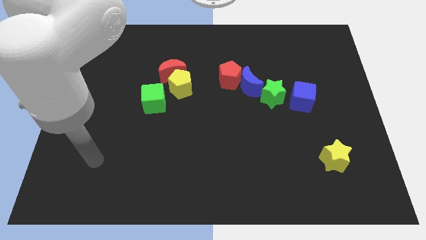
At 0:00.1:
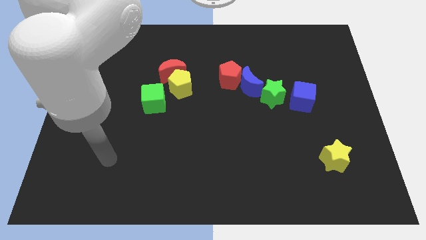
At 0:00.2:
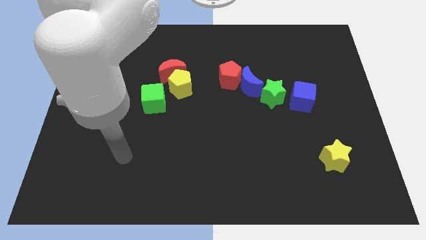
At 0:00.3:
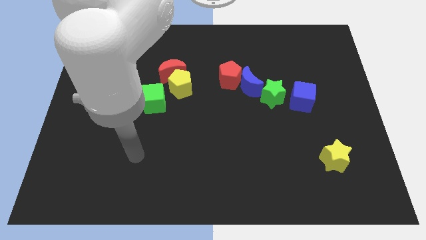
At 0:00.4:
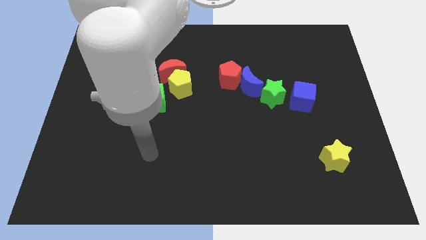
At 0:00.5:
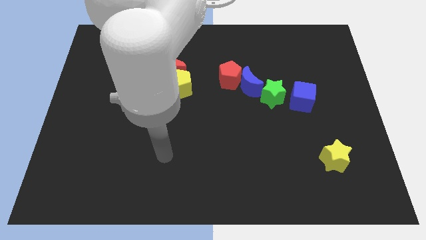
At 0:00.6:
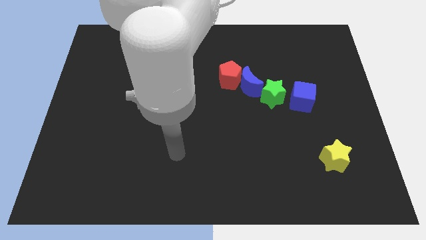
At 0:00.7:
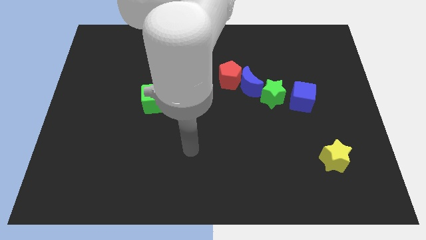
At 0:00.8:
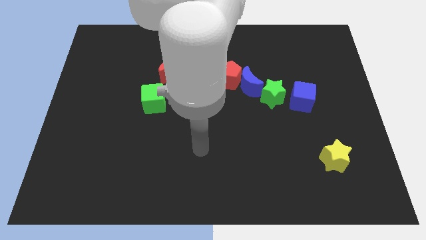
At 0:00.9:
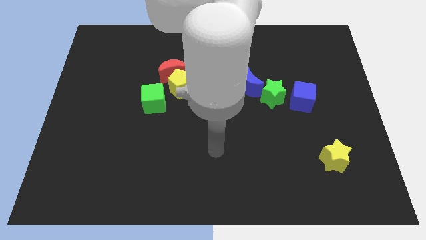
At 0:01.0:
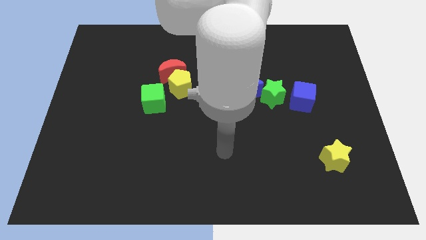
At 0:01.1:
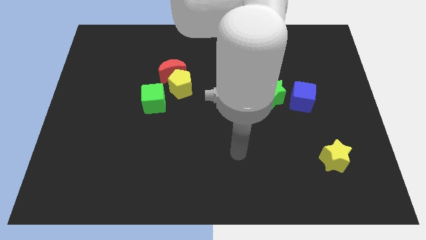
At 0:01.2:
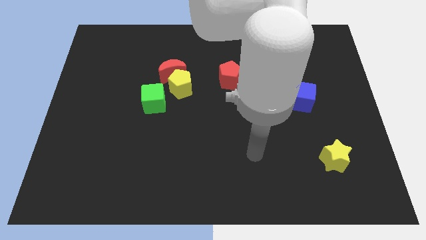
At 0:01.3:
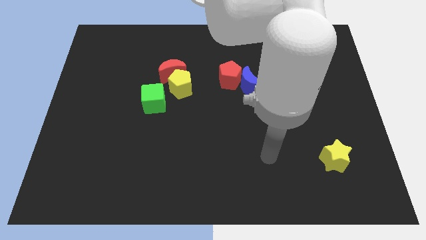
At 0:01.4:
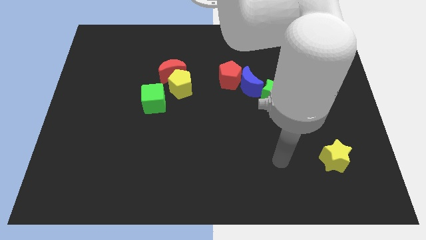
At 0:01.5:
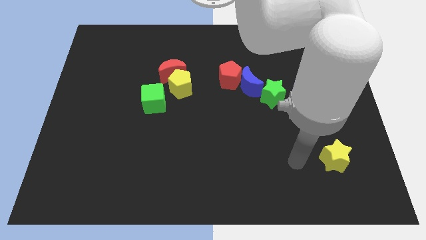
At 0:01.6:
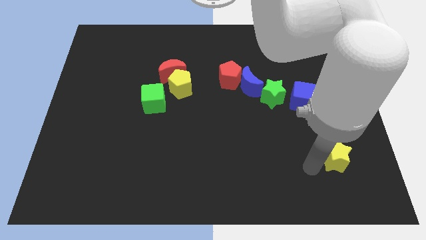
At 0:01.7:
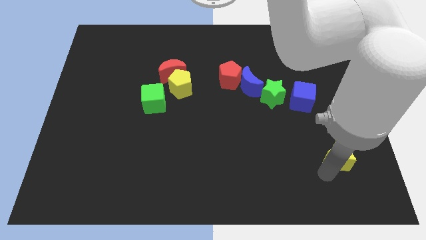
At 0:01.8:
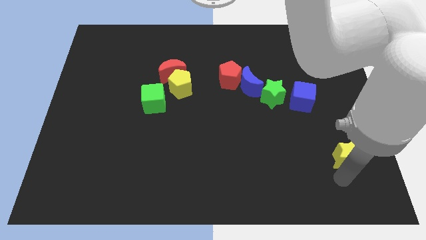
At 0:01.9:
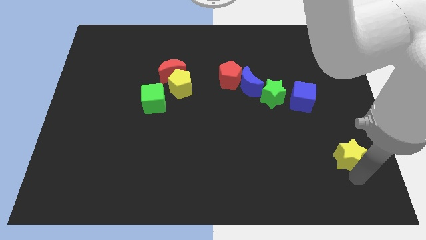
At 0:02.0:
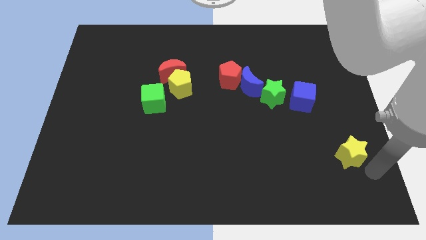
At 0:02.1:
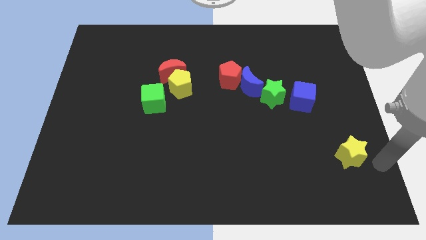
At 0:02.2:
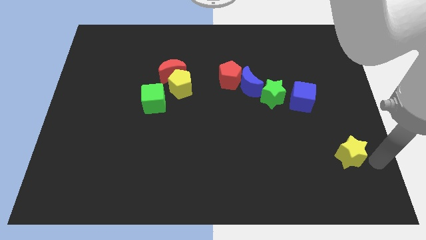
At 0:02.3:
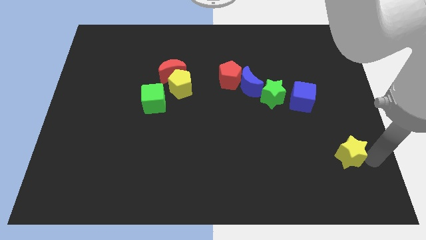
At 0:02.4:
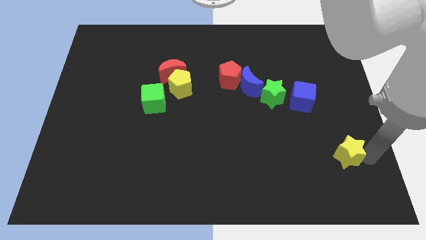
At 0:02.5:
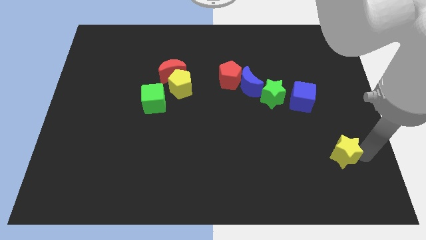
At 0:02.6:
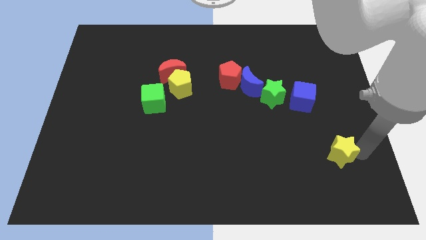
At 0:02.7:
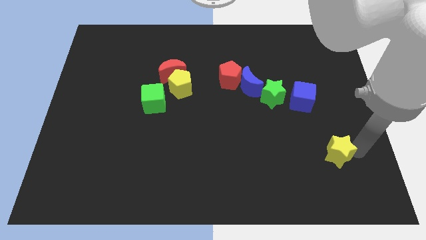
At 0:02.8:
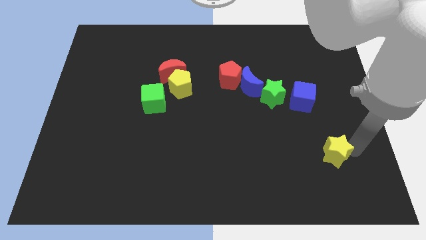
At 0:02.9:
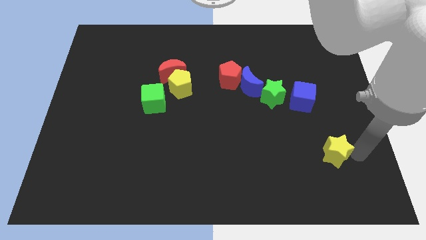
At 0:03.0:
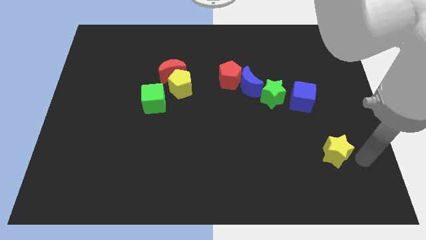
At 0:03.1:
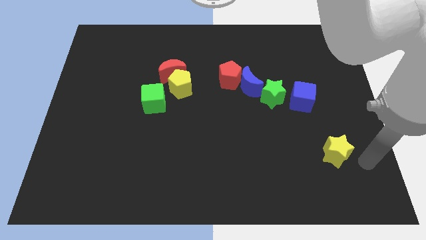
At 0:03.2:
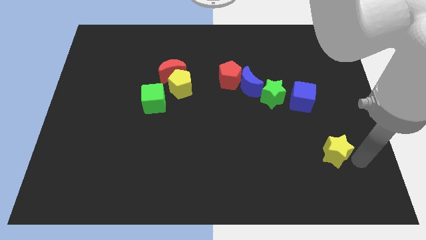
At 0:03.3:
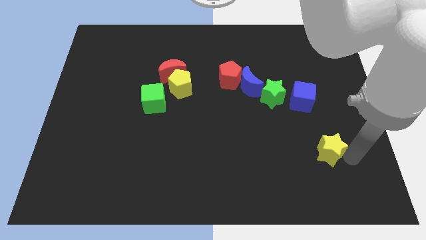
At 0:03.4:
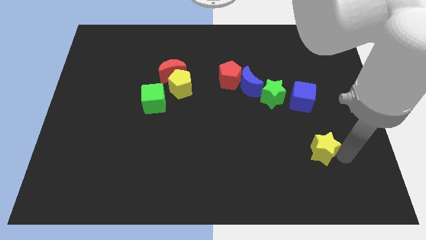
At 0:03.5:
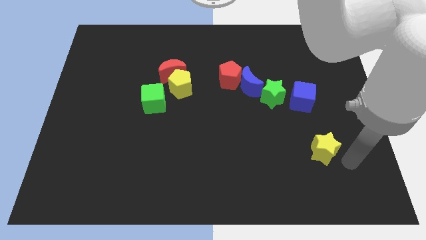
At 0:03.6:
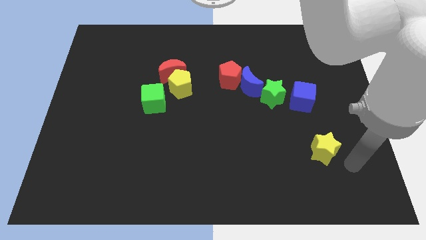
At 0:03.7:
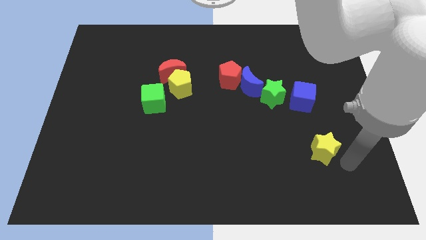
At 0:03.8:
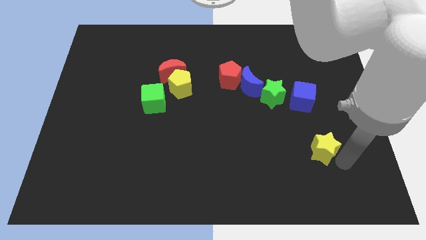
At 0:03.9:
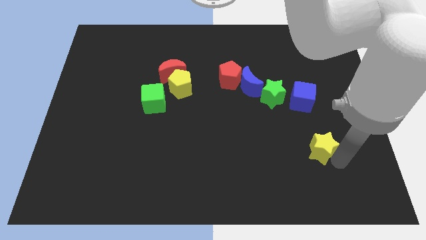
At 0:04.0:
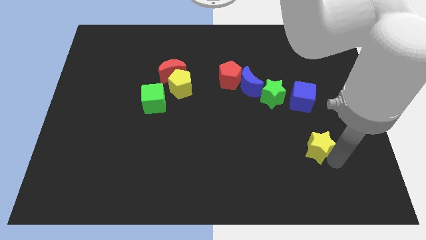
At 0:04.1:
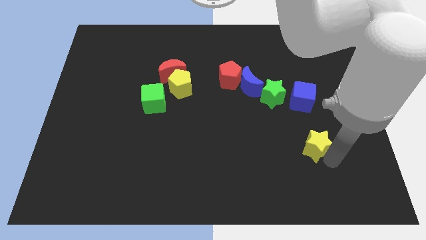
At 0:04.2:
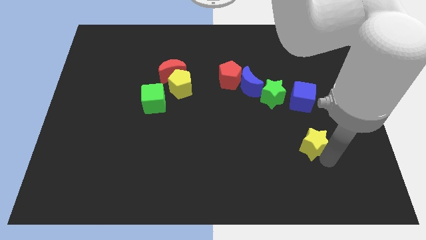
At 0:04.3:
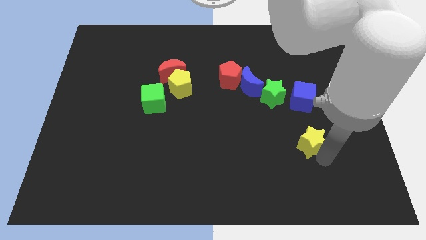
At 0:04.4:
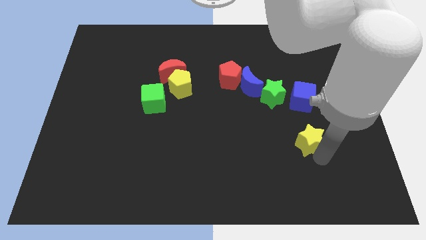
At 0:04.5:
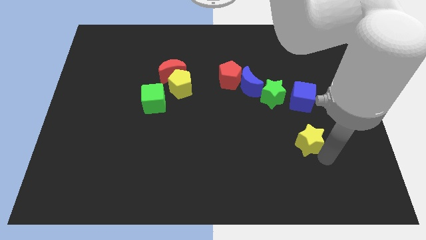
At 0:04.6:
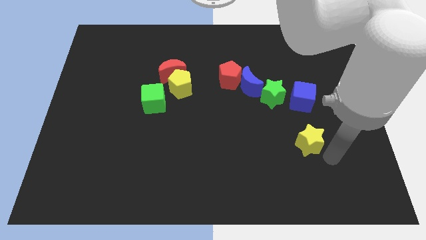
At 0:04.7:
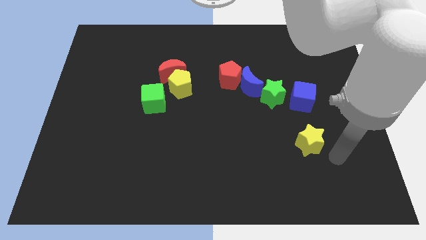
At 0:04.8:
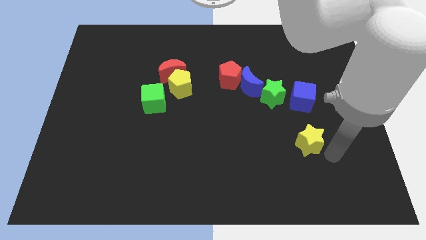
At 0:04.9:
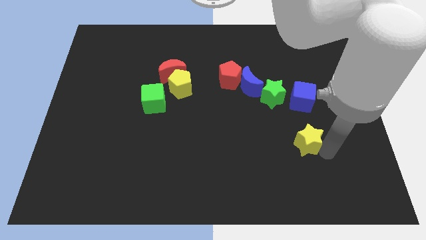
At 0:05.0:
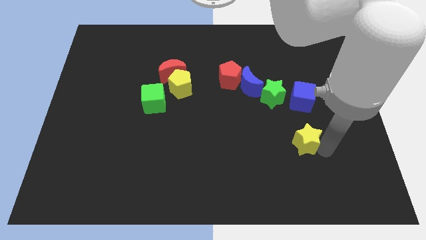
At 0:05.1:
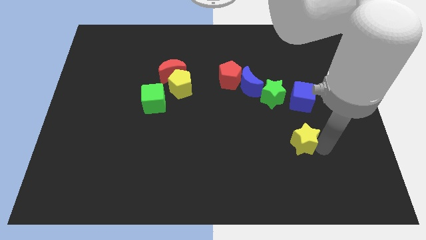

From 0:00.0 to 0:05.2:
move the yellow star slightly diagonally upwards and to the left

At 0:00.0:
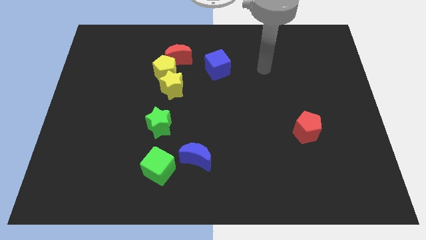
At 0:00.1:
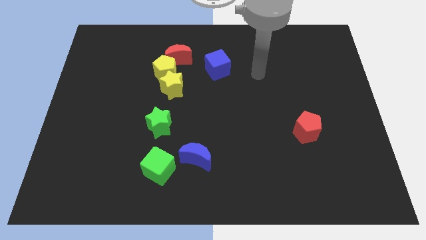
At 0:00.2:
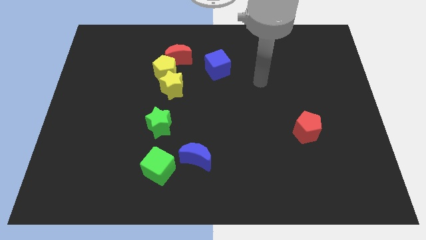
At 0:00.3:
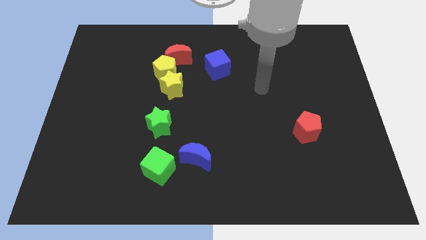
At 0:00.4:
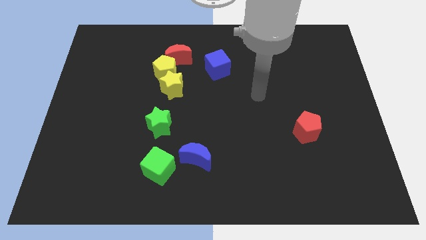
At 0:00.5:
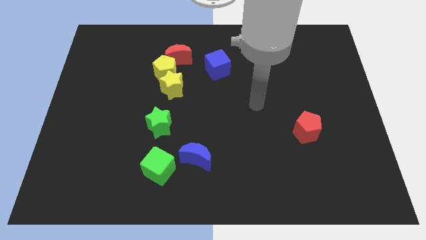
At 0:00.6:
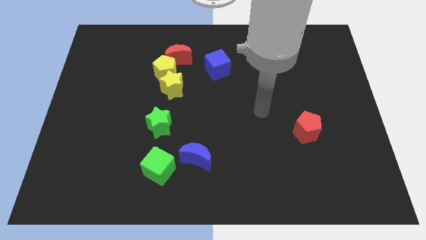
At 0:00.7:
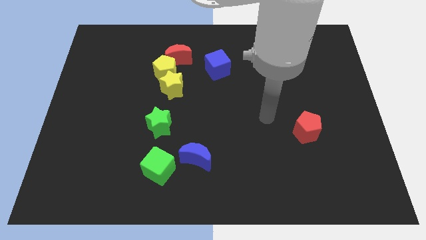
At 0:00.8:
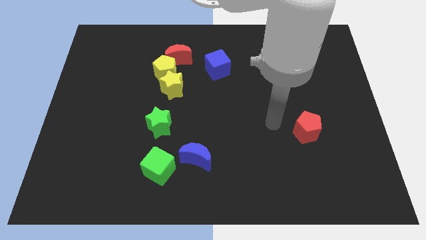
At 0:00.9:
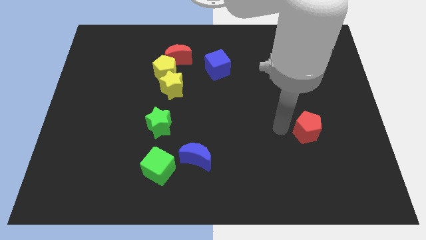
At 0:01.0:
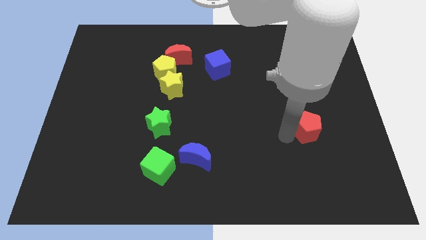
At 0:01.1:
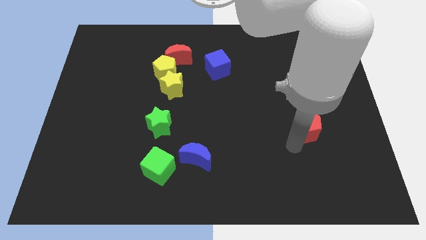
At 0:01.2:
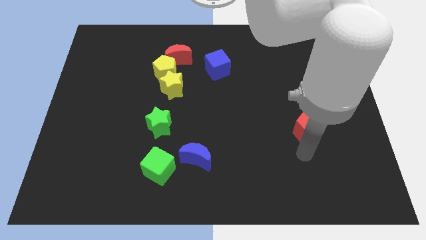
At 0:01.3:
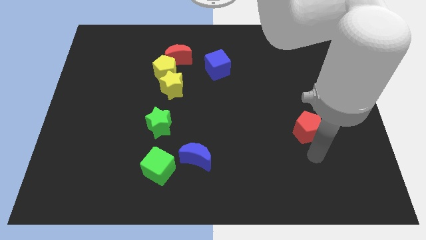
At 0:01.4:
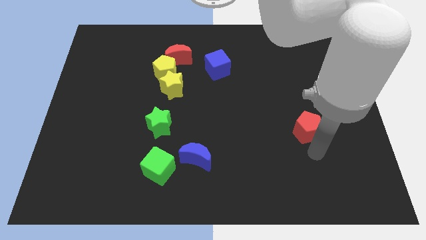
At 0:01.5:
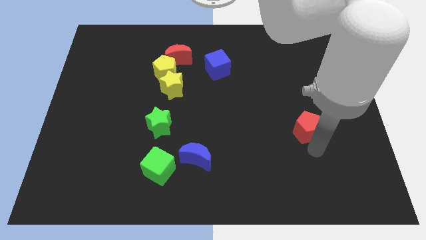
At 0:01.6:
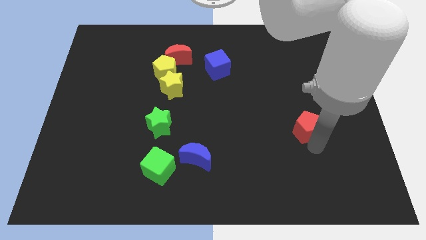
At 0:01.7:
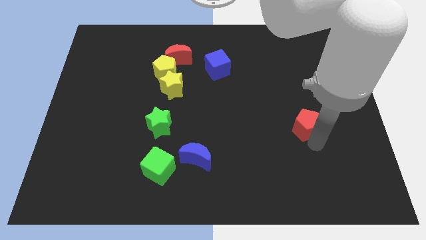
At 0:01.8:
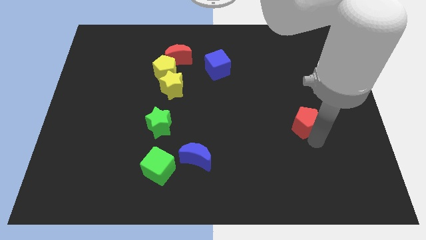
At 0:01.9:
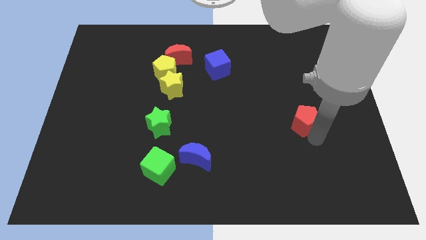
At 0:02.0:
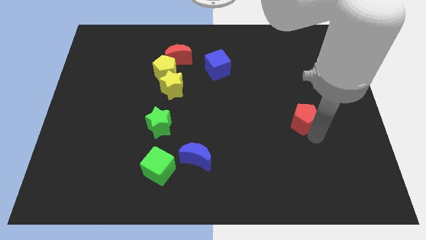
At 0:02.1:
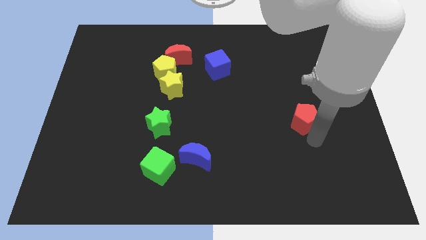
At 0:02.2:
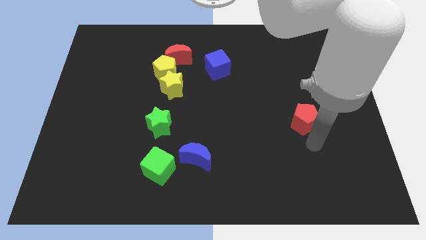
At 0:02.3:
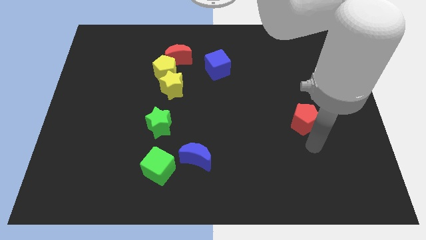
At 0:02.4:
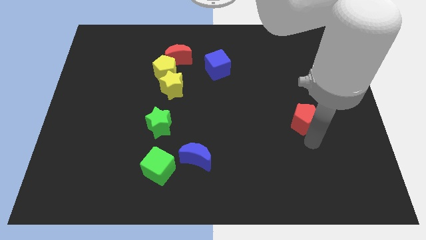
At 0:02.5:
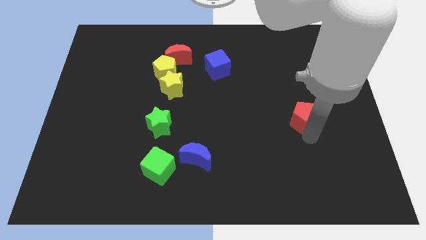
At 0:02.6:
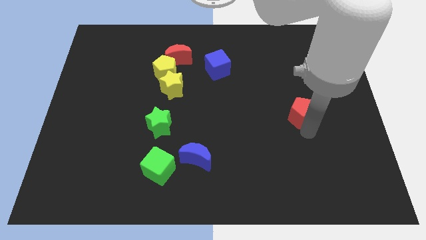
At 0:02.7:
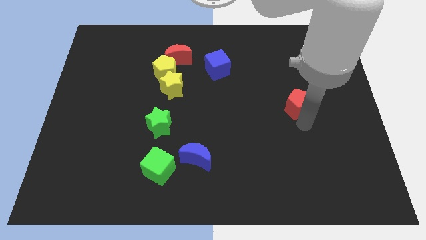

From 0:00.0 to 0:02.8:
slightly push the red pentagon upwards
